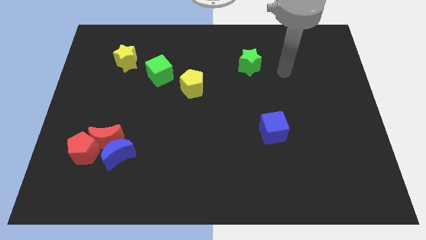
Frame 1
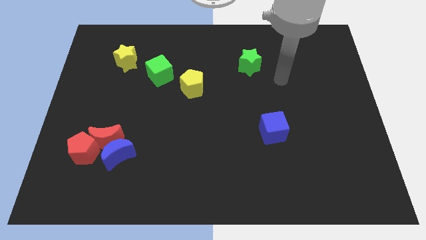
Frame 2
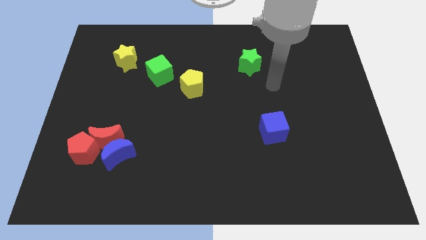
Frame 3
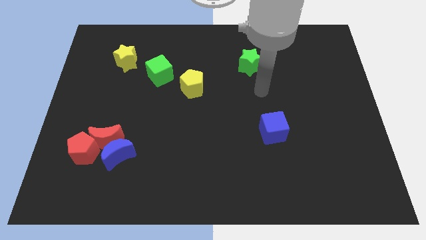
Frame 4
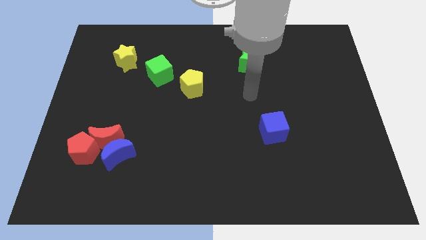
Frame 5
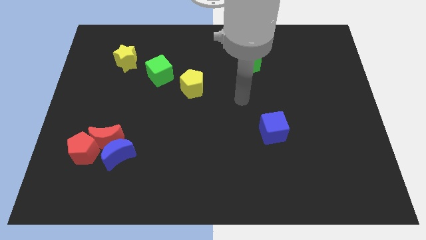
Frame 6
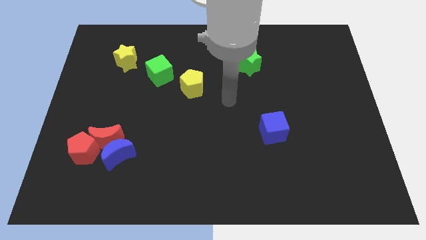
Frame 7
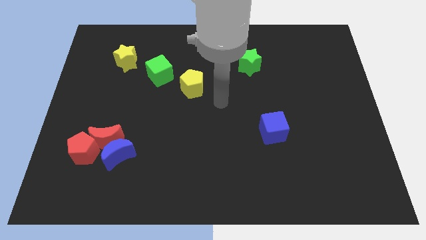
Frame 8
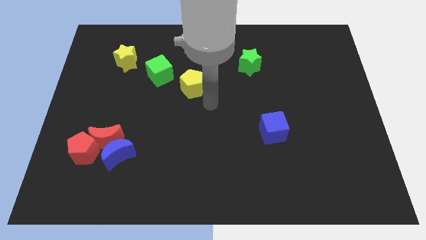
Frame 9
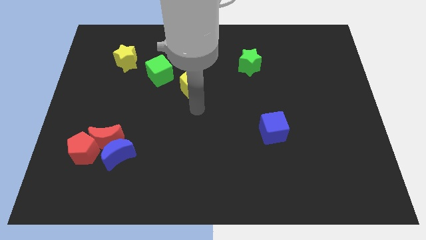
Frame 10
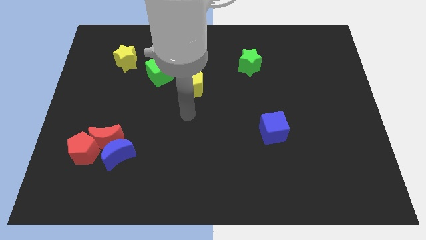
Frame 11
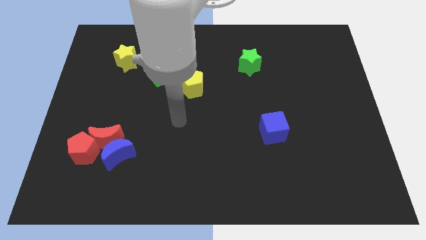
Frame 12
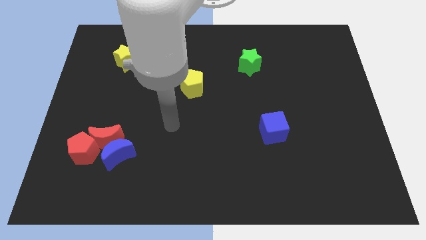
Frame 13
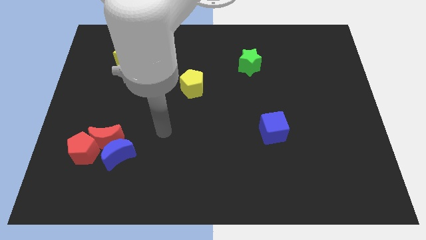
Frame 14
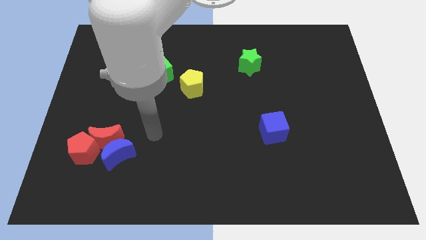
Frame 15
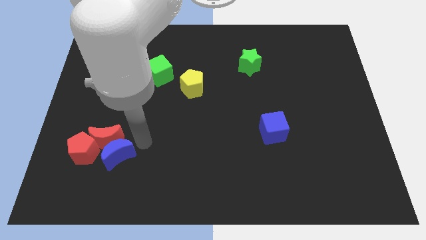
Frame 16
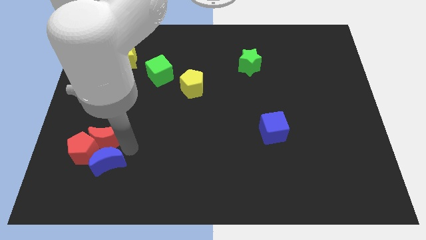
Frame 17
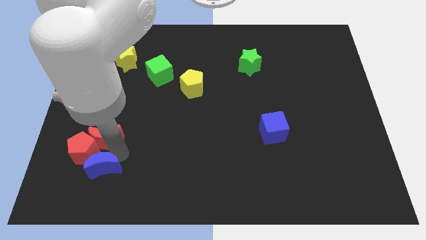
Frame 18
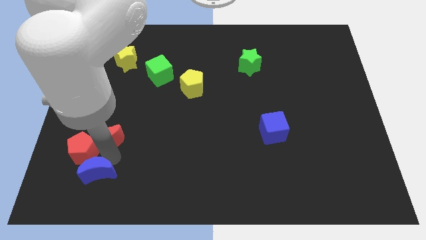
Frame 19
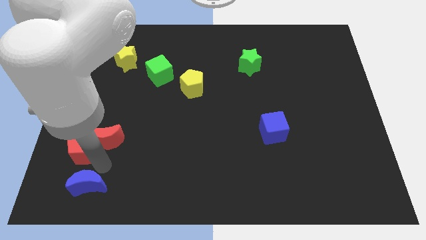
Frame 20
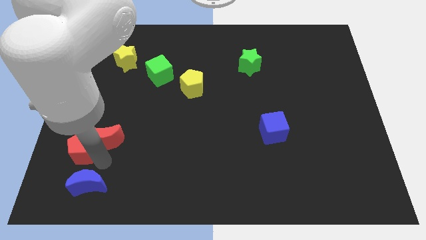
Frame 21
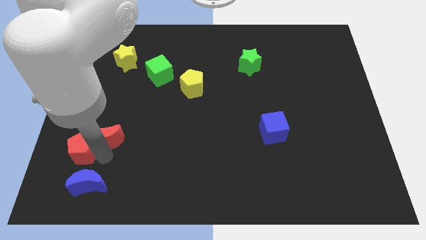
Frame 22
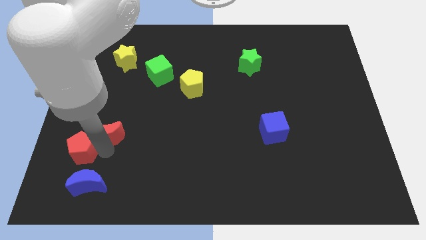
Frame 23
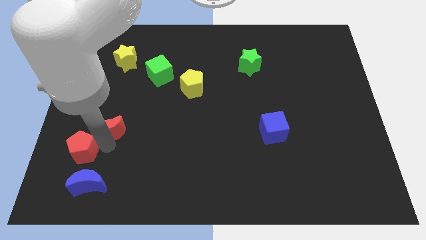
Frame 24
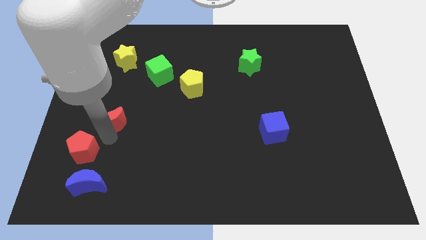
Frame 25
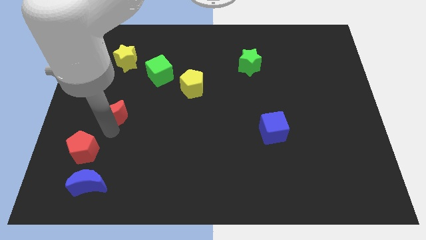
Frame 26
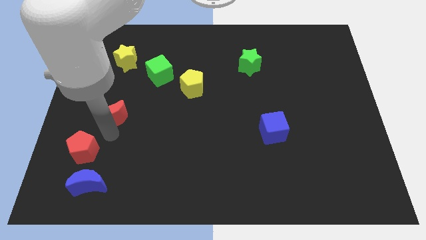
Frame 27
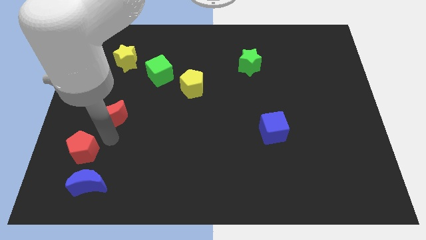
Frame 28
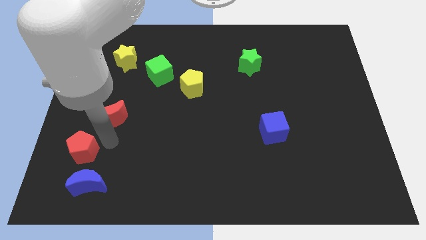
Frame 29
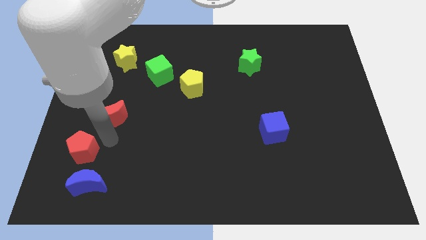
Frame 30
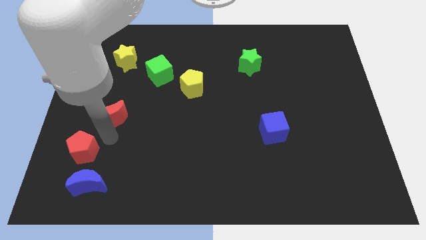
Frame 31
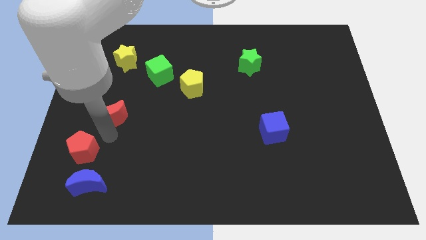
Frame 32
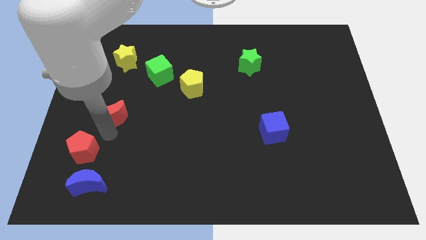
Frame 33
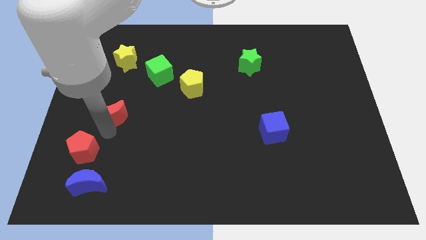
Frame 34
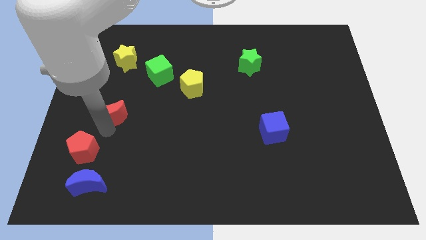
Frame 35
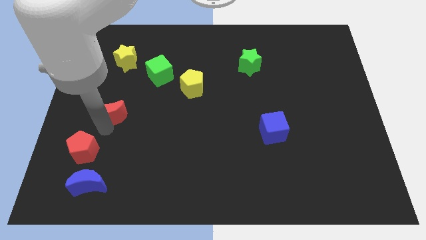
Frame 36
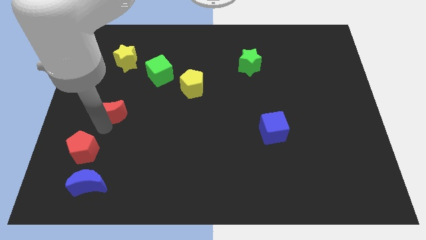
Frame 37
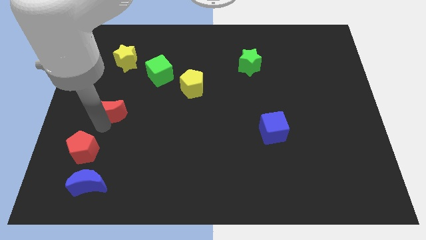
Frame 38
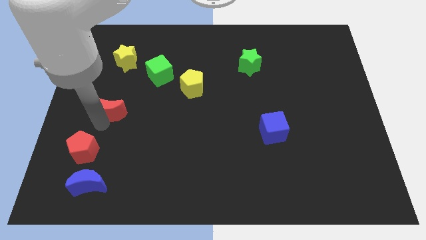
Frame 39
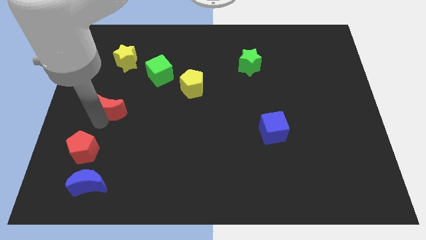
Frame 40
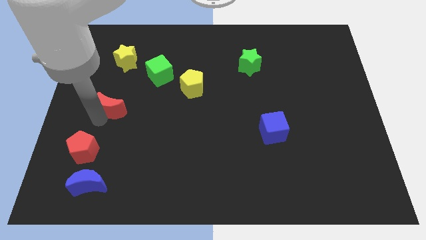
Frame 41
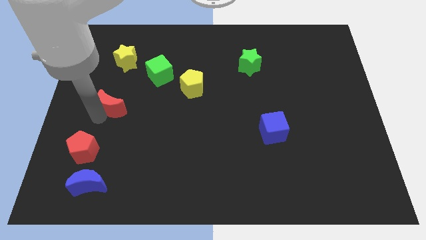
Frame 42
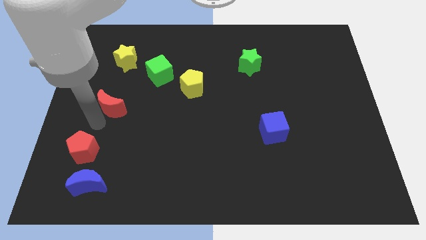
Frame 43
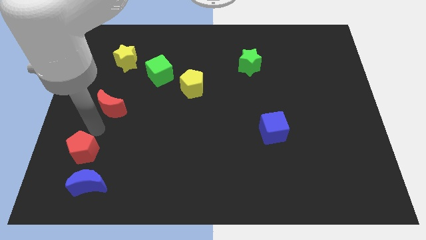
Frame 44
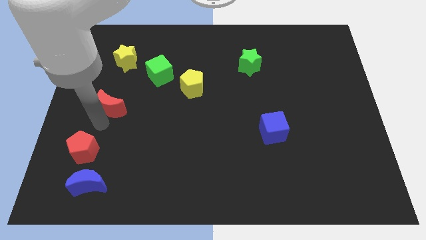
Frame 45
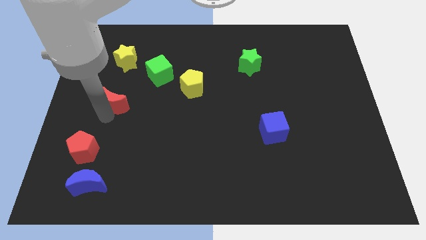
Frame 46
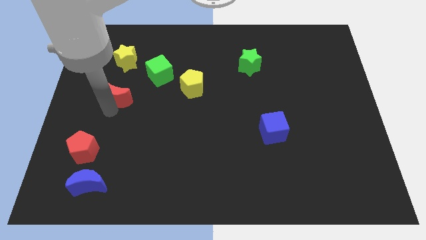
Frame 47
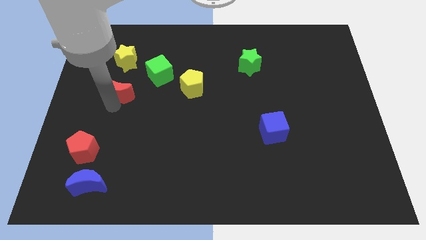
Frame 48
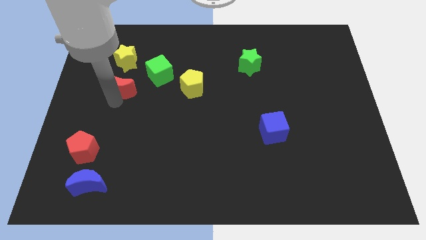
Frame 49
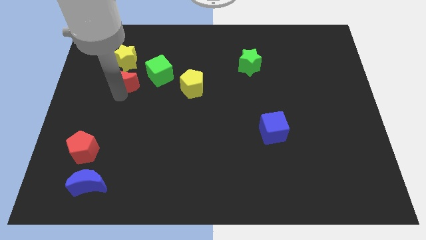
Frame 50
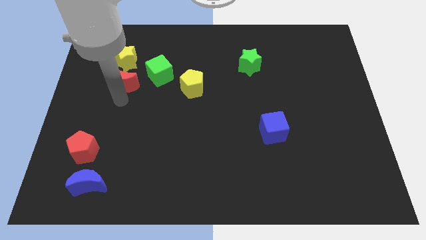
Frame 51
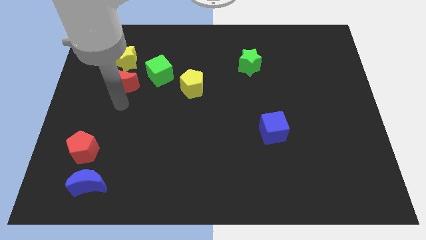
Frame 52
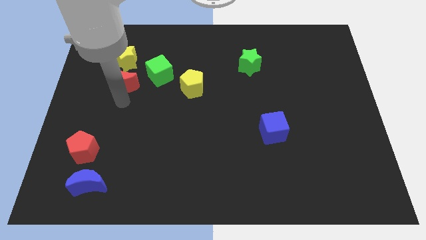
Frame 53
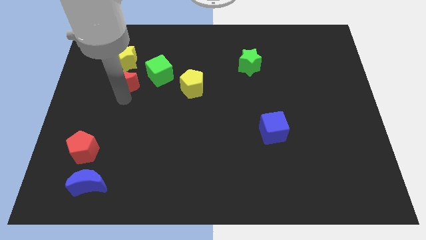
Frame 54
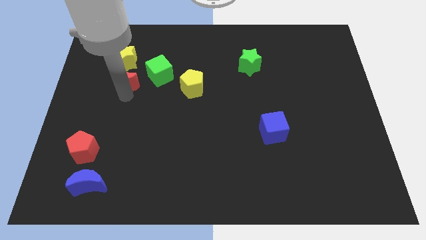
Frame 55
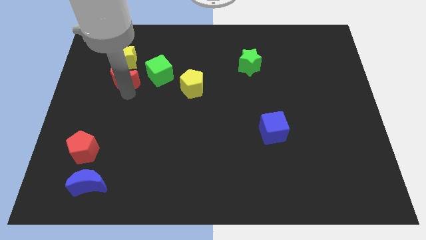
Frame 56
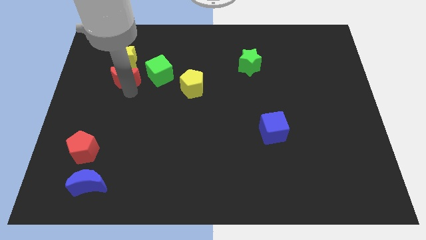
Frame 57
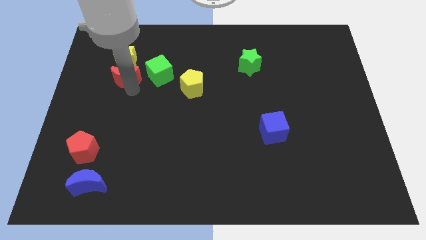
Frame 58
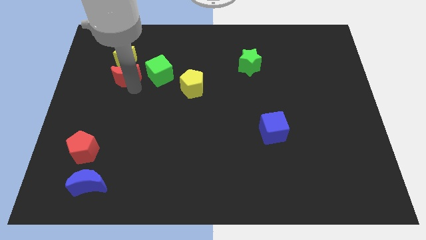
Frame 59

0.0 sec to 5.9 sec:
slide the red moon close to the yellow star
